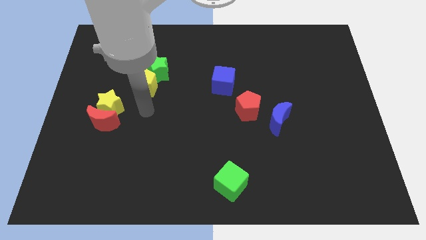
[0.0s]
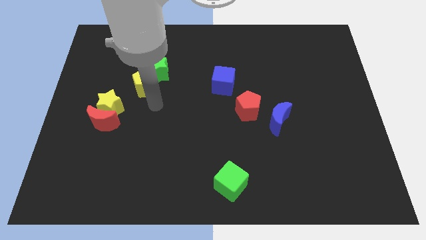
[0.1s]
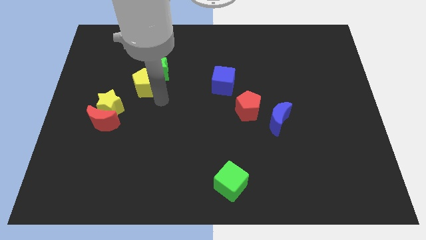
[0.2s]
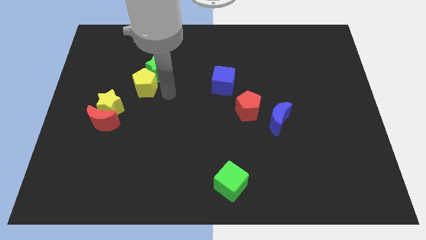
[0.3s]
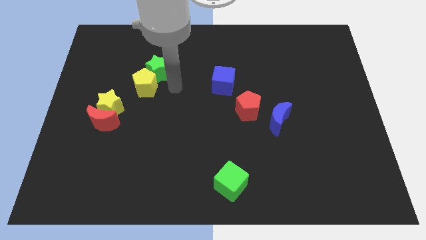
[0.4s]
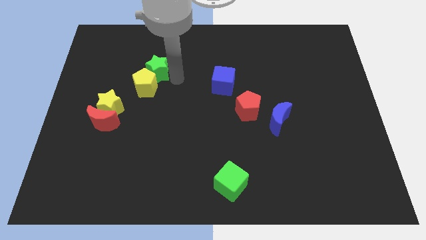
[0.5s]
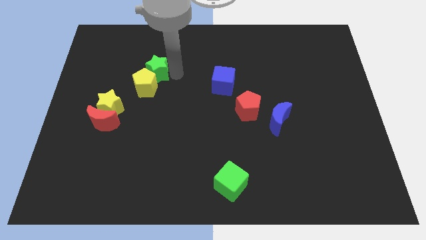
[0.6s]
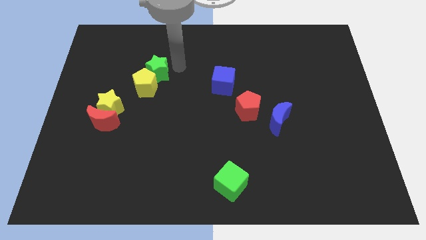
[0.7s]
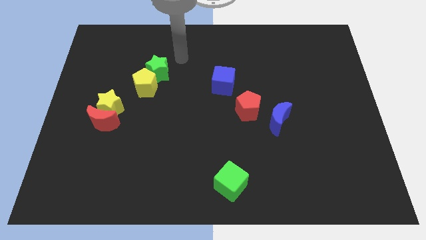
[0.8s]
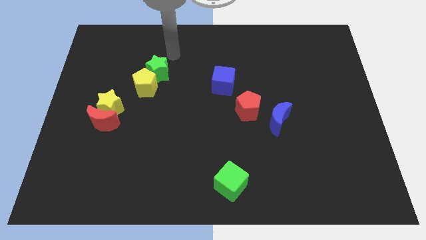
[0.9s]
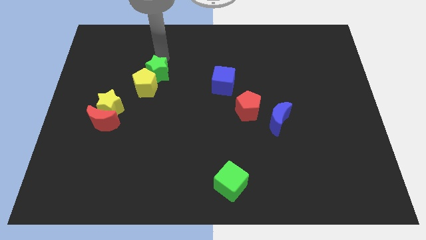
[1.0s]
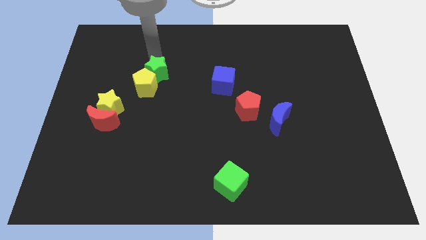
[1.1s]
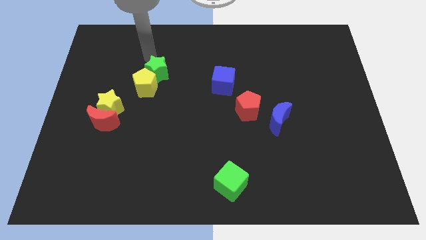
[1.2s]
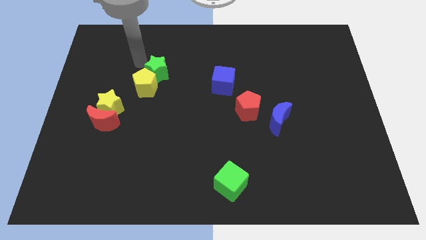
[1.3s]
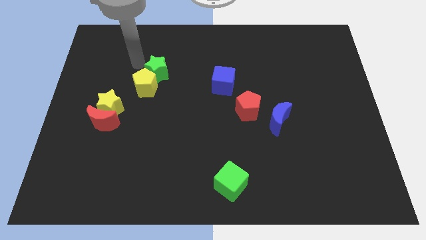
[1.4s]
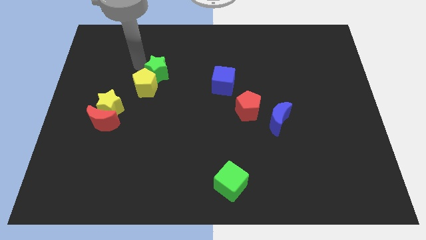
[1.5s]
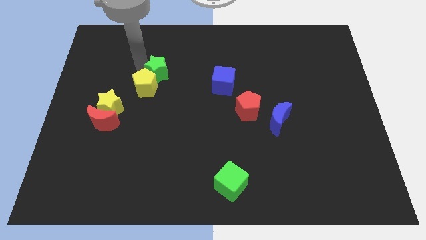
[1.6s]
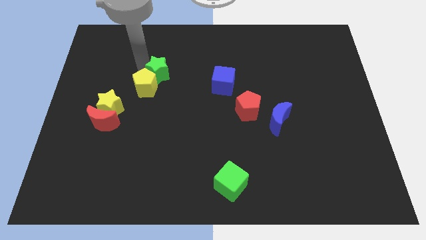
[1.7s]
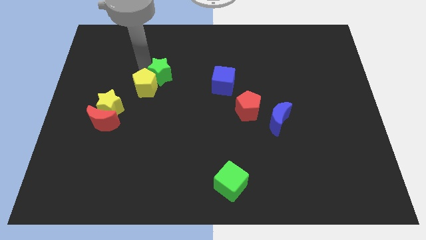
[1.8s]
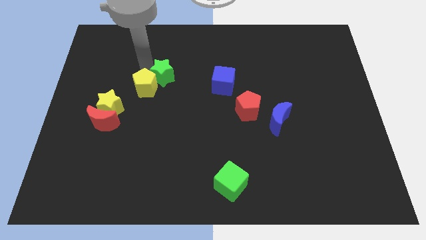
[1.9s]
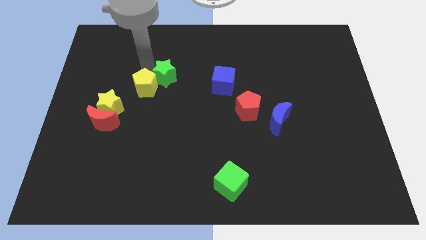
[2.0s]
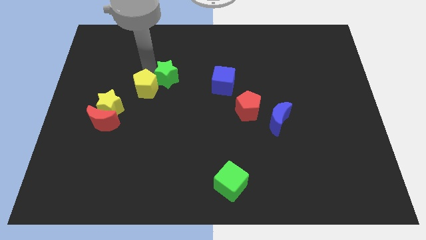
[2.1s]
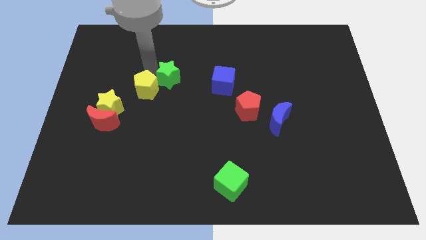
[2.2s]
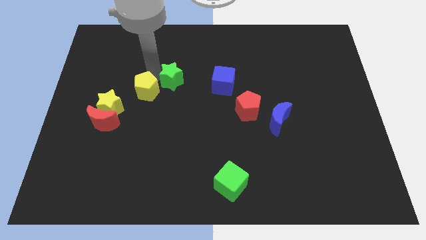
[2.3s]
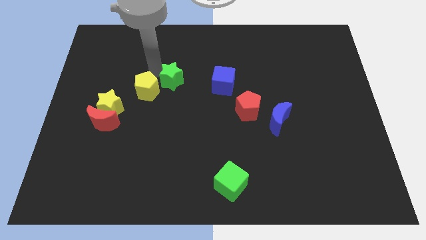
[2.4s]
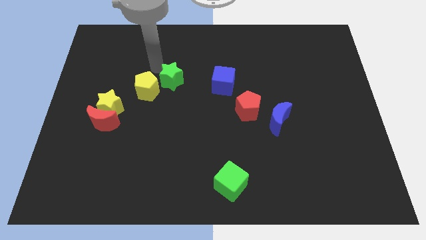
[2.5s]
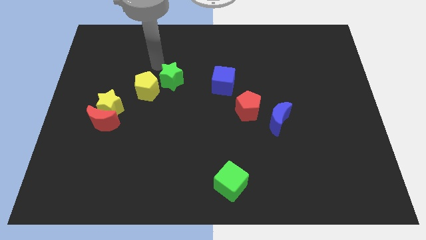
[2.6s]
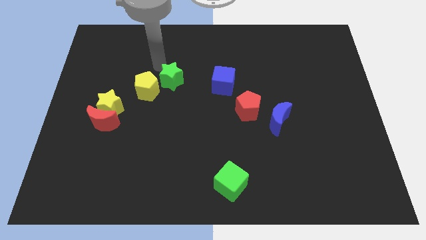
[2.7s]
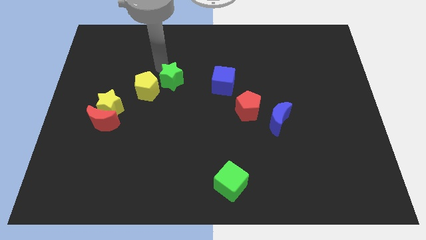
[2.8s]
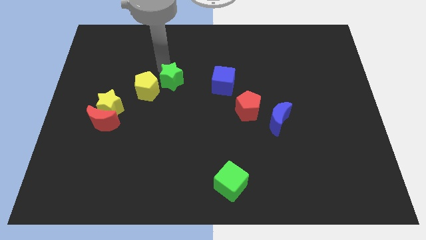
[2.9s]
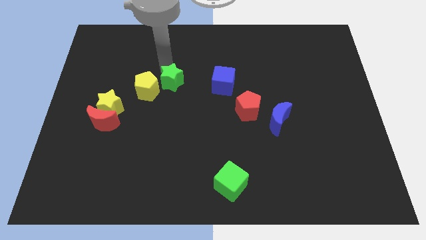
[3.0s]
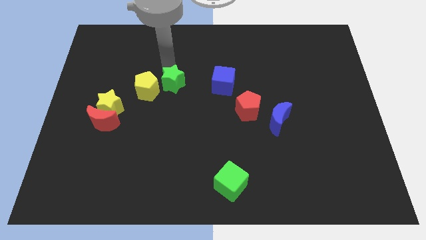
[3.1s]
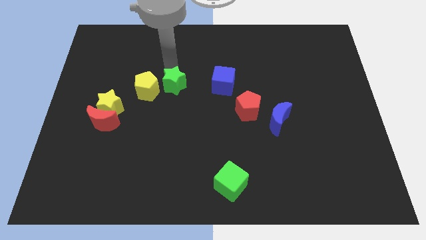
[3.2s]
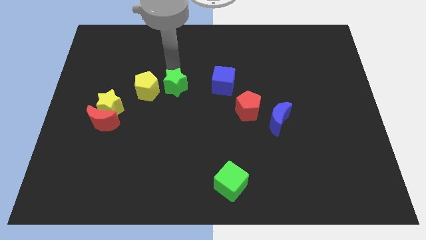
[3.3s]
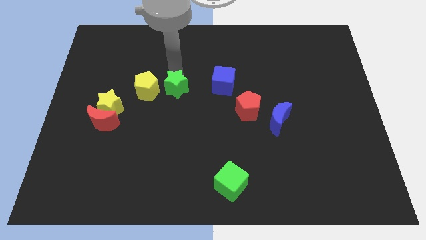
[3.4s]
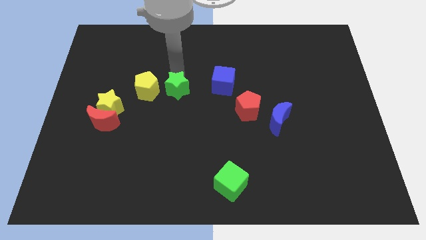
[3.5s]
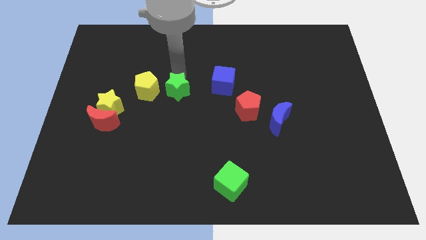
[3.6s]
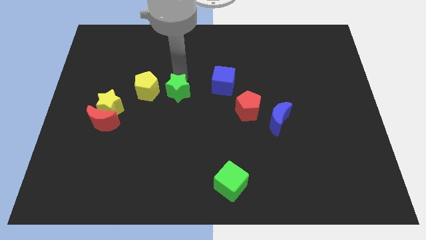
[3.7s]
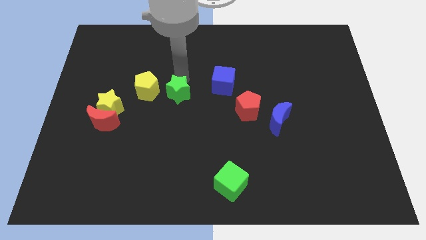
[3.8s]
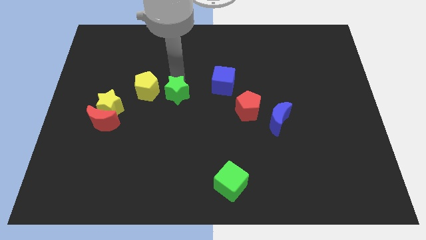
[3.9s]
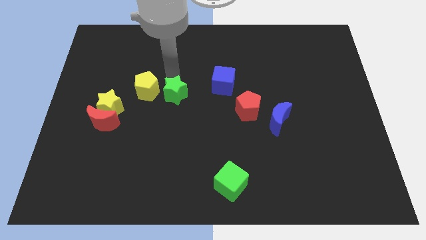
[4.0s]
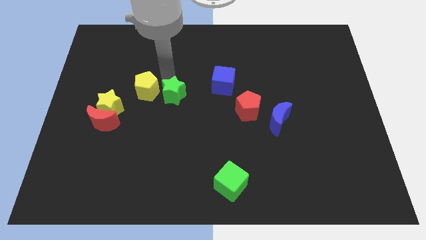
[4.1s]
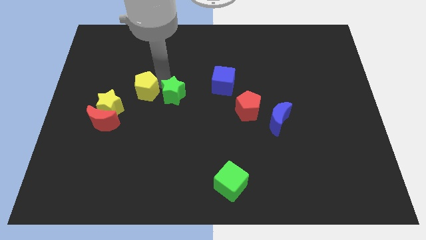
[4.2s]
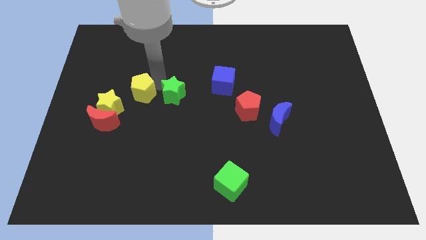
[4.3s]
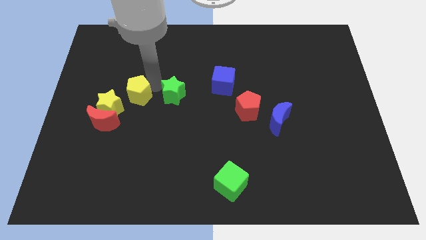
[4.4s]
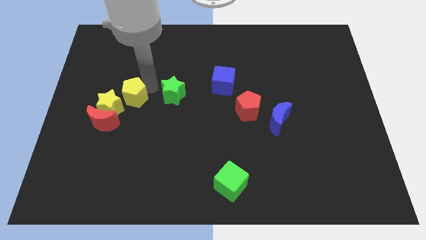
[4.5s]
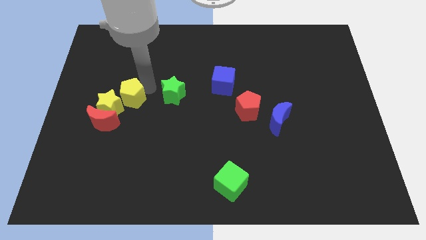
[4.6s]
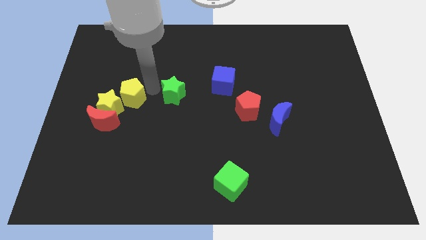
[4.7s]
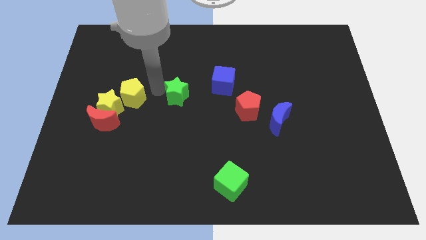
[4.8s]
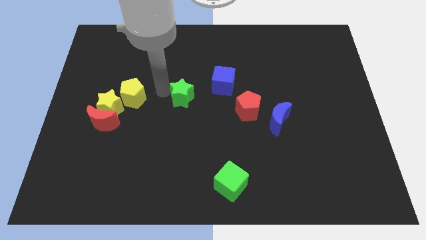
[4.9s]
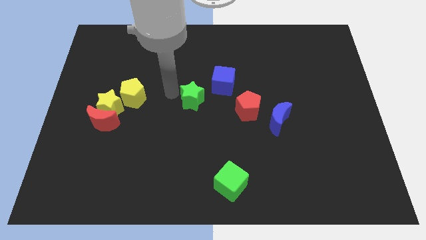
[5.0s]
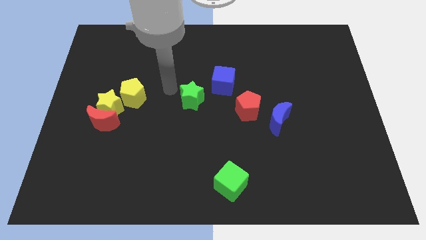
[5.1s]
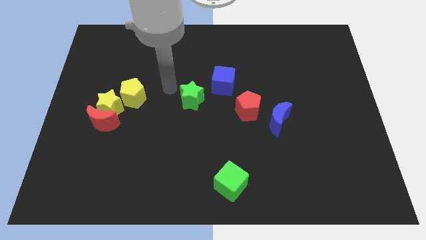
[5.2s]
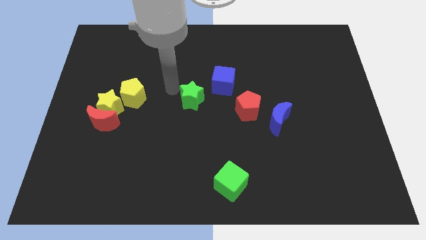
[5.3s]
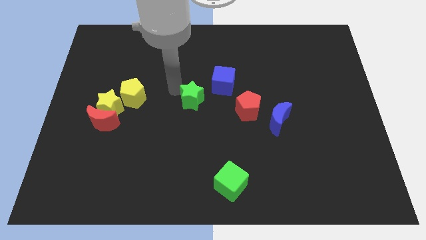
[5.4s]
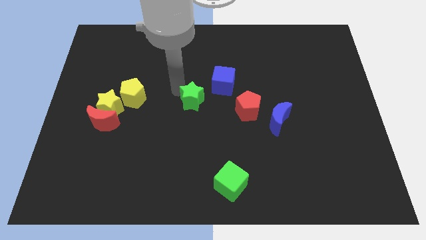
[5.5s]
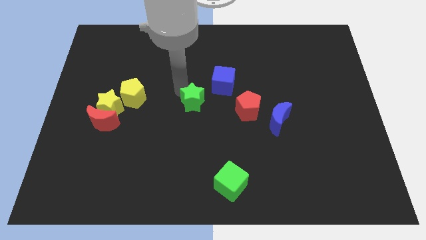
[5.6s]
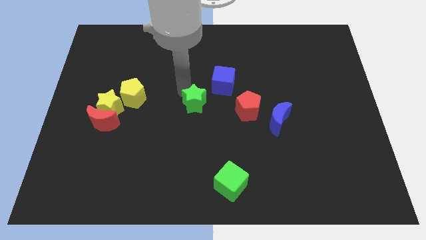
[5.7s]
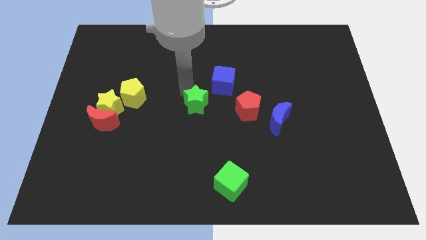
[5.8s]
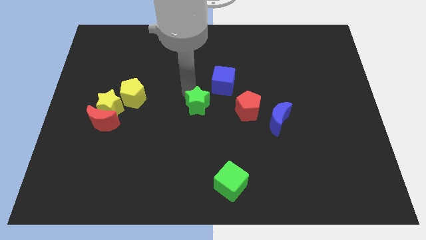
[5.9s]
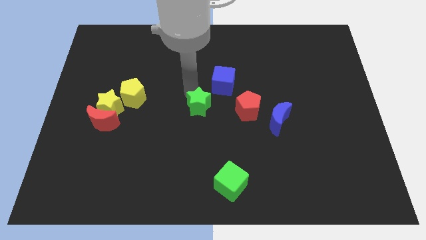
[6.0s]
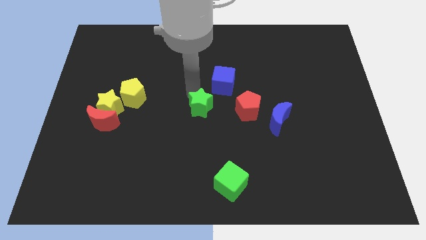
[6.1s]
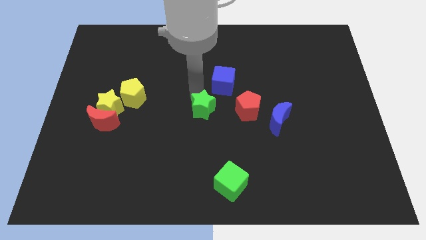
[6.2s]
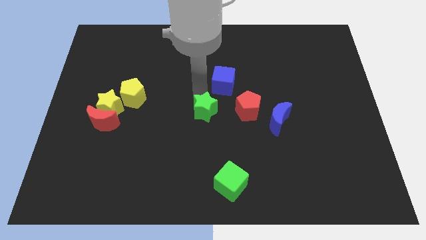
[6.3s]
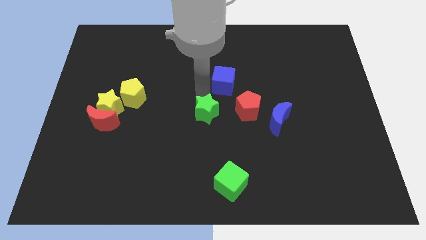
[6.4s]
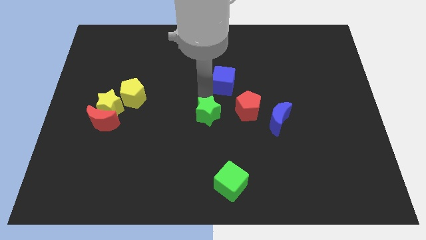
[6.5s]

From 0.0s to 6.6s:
slide the green star to the left of the blue moon

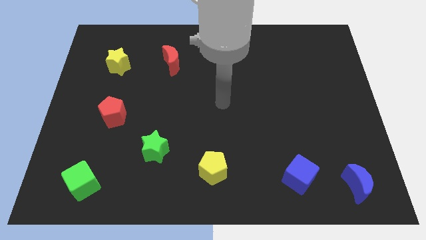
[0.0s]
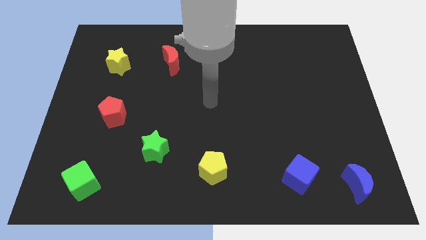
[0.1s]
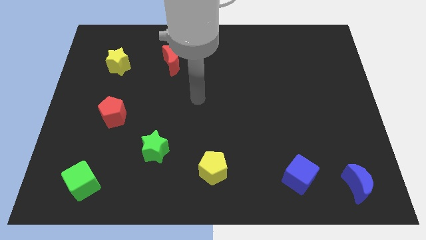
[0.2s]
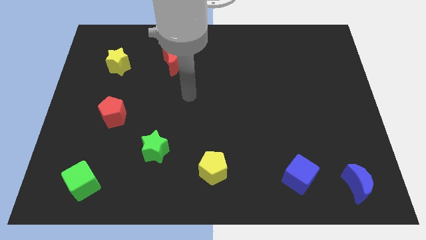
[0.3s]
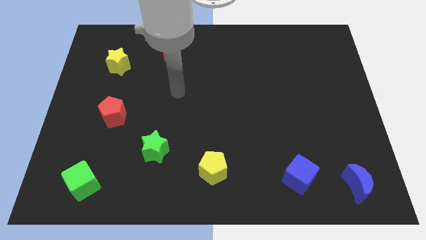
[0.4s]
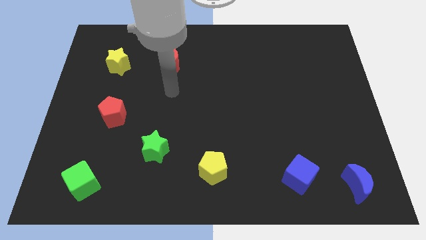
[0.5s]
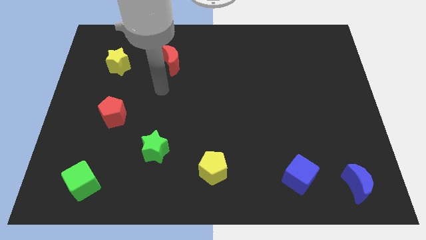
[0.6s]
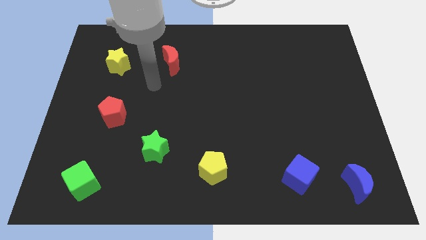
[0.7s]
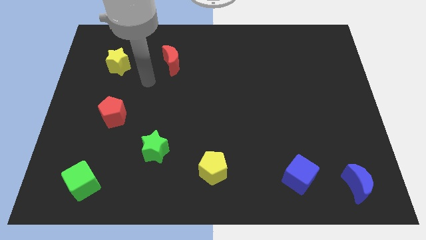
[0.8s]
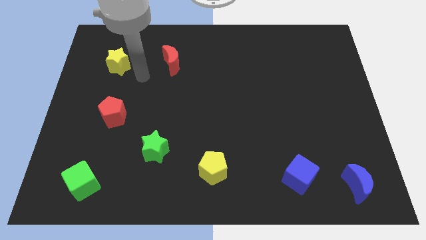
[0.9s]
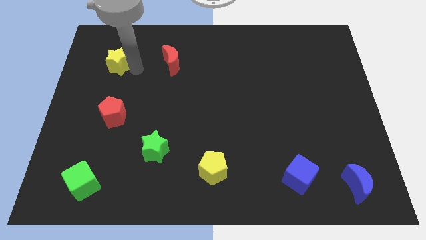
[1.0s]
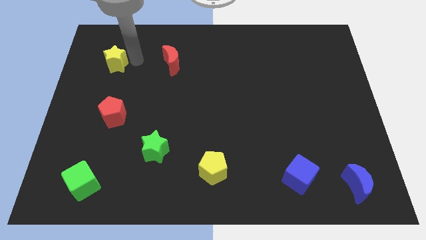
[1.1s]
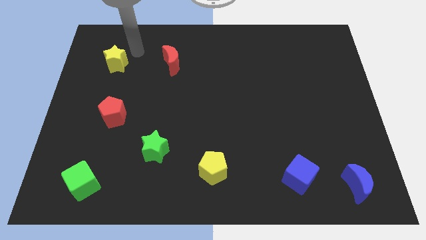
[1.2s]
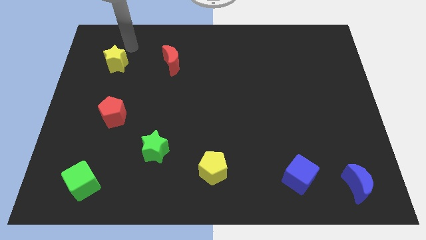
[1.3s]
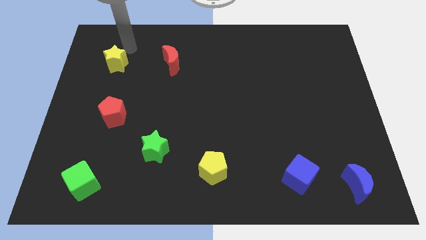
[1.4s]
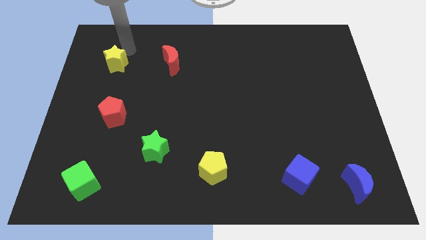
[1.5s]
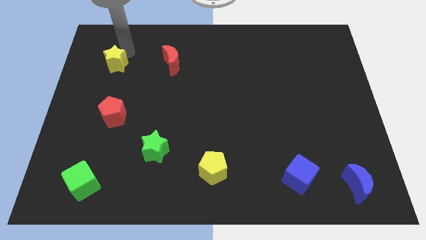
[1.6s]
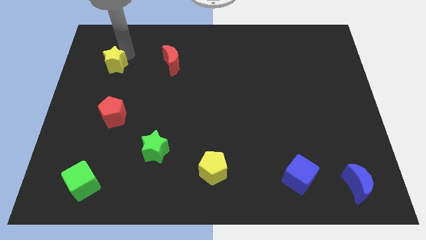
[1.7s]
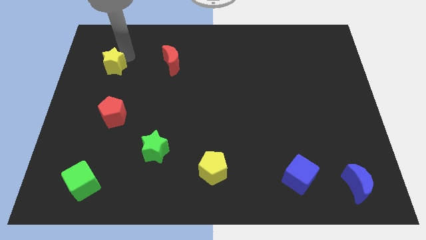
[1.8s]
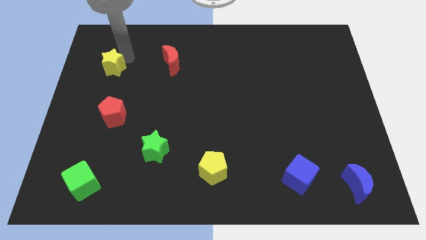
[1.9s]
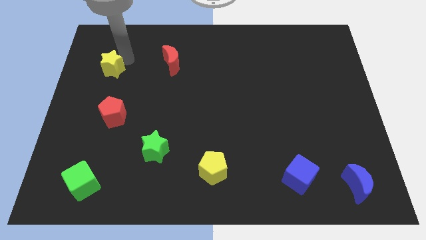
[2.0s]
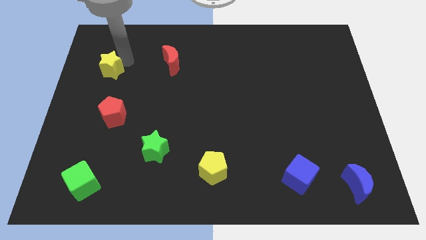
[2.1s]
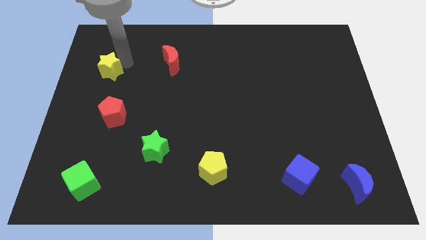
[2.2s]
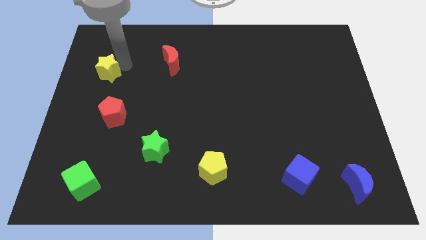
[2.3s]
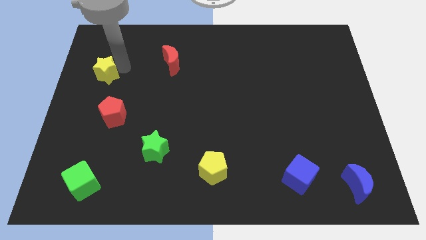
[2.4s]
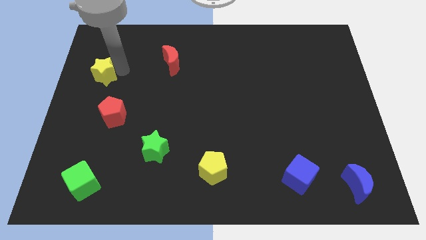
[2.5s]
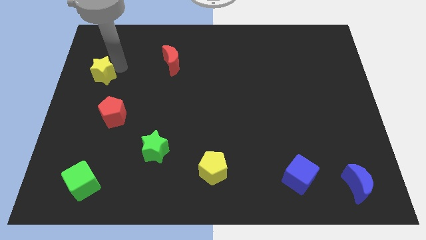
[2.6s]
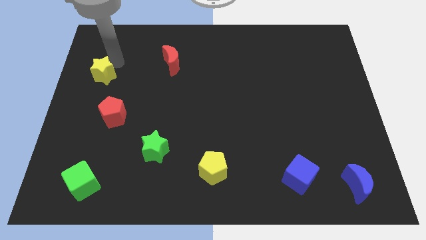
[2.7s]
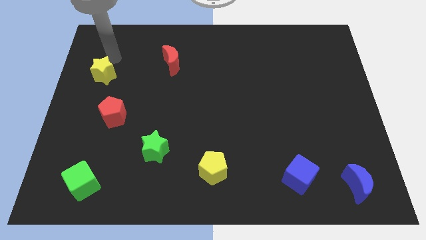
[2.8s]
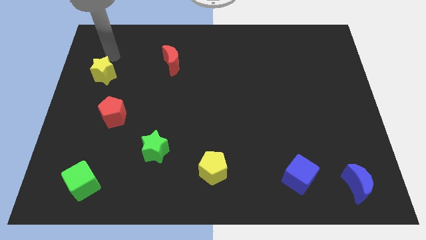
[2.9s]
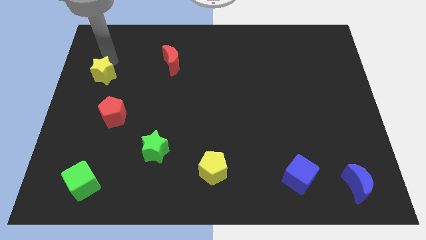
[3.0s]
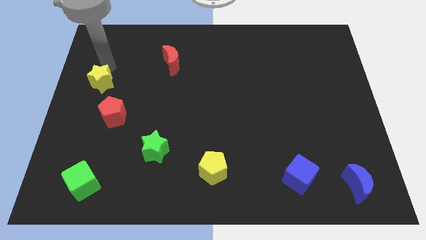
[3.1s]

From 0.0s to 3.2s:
slide the yellow star diagonally up and to the left of the red pentagon
